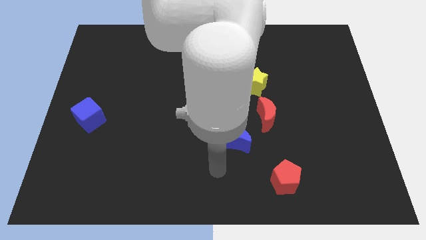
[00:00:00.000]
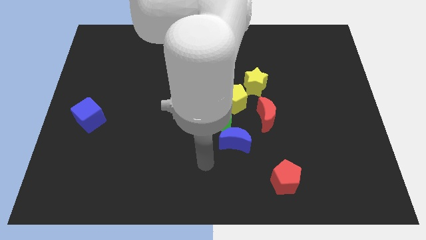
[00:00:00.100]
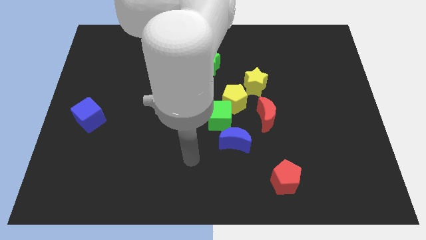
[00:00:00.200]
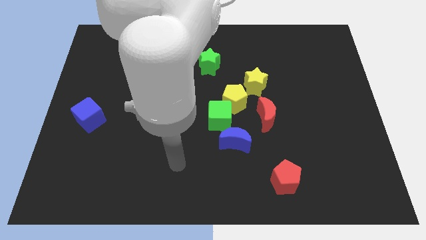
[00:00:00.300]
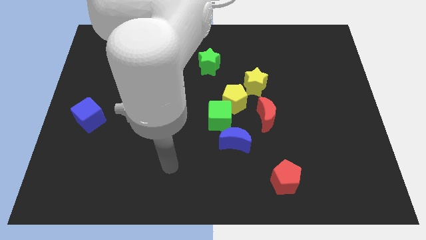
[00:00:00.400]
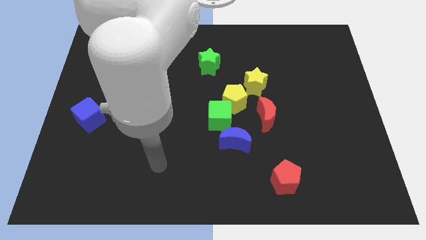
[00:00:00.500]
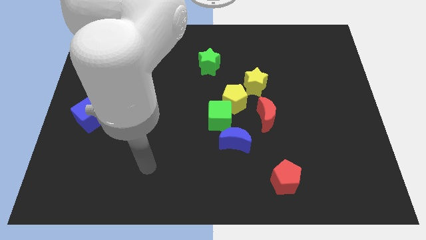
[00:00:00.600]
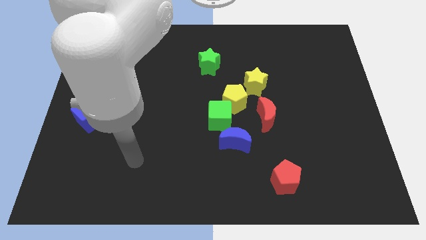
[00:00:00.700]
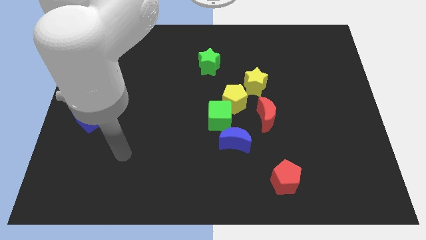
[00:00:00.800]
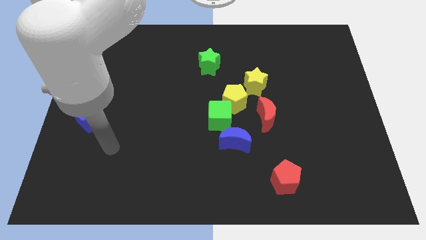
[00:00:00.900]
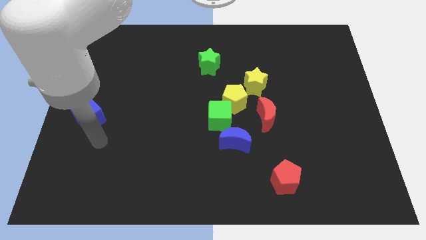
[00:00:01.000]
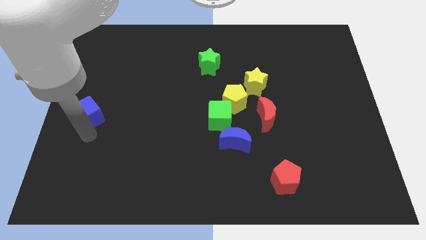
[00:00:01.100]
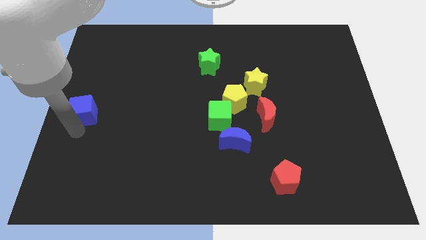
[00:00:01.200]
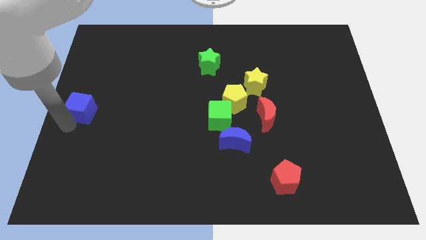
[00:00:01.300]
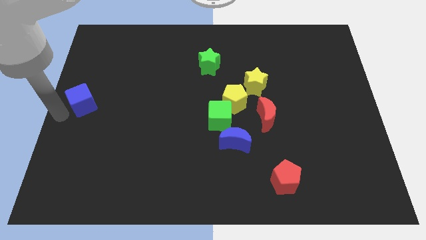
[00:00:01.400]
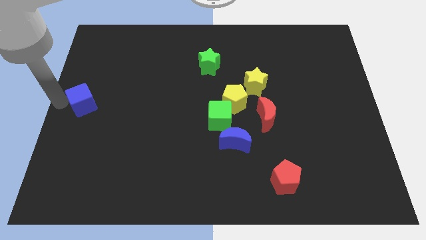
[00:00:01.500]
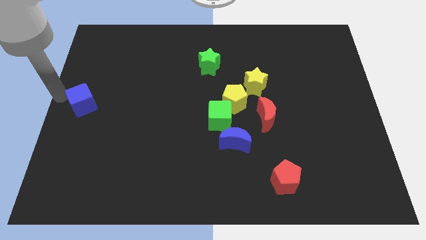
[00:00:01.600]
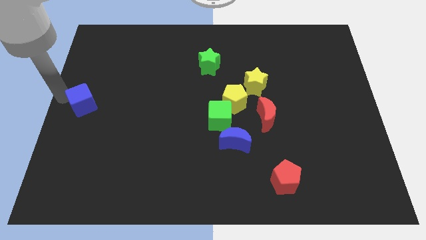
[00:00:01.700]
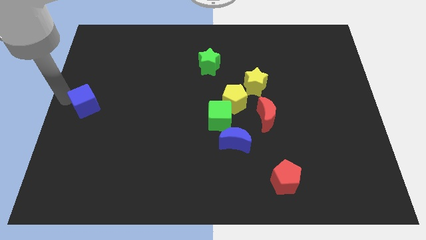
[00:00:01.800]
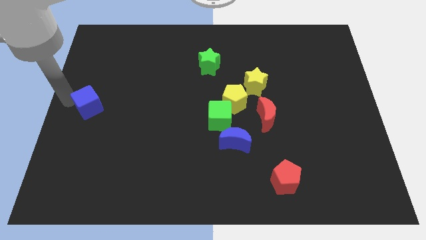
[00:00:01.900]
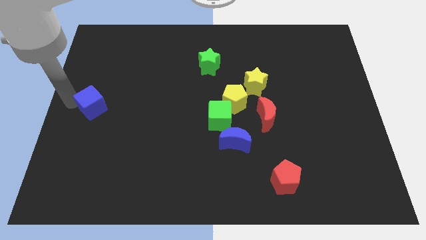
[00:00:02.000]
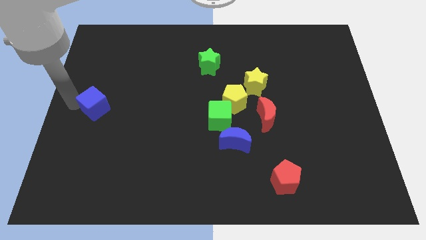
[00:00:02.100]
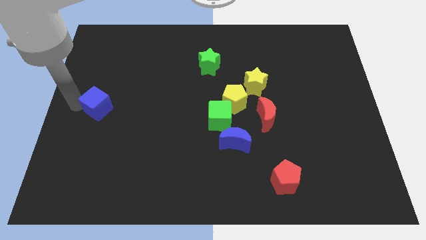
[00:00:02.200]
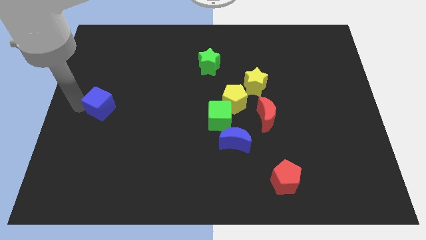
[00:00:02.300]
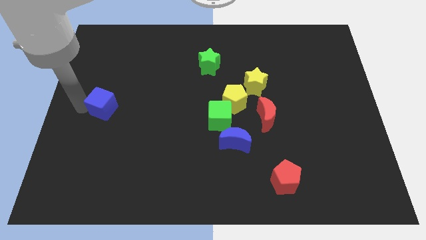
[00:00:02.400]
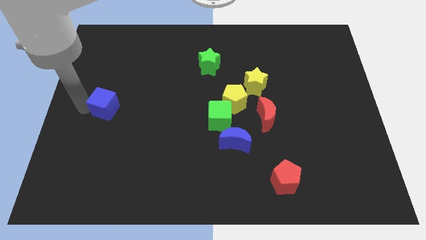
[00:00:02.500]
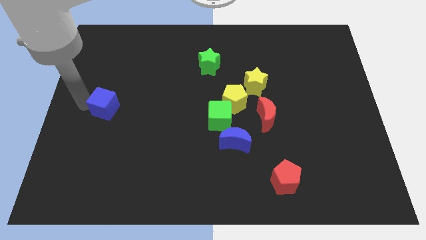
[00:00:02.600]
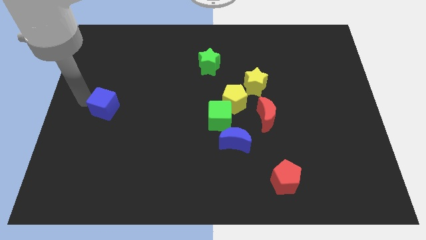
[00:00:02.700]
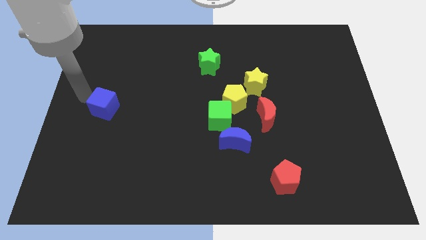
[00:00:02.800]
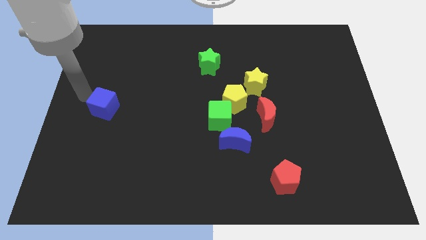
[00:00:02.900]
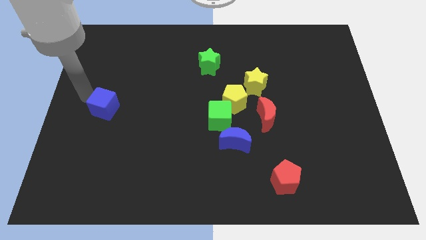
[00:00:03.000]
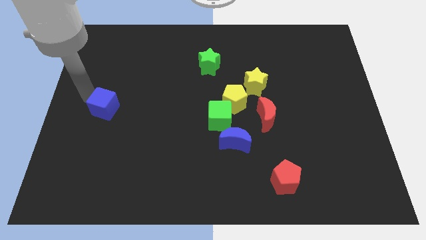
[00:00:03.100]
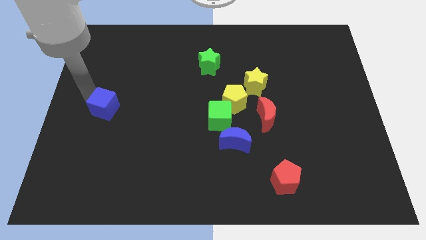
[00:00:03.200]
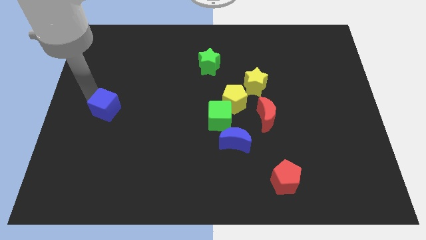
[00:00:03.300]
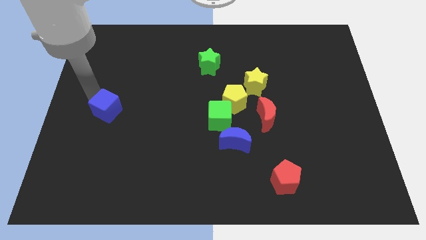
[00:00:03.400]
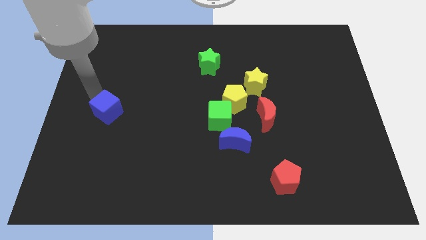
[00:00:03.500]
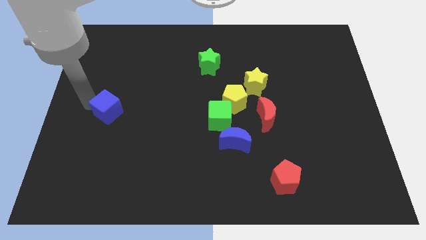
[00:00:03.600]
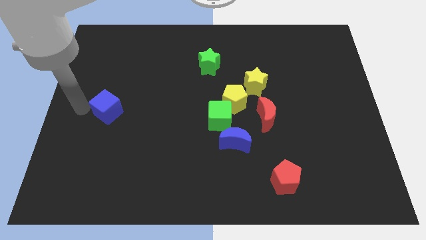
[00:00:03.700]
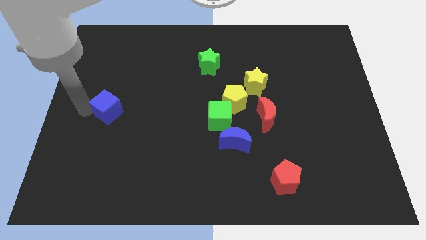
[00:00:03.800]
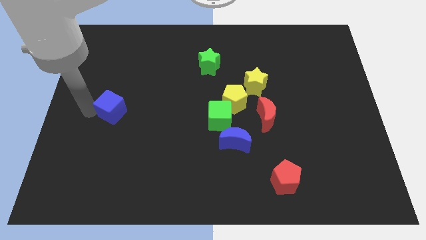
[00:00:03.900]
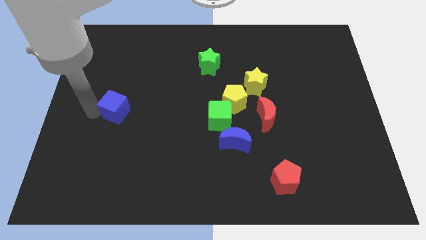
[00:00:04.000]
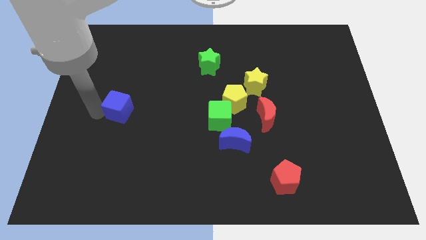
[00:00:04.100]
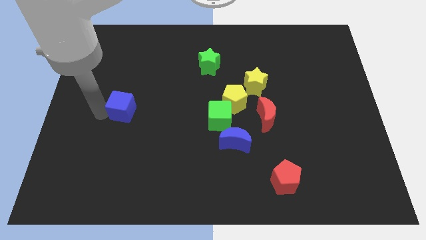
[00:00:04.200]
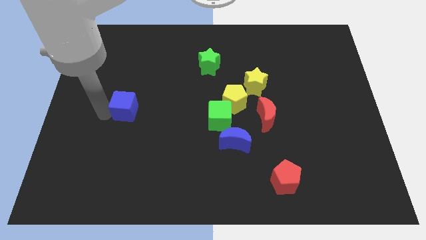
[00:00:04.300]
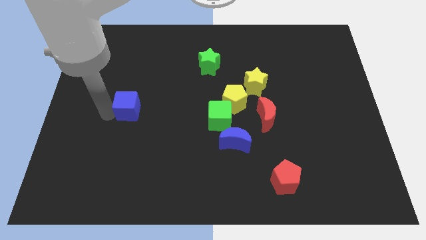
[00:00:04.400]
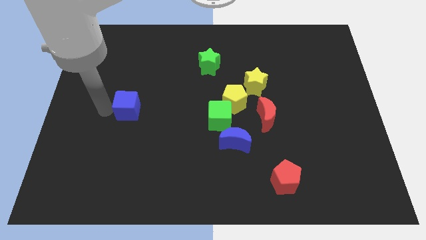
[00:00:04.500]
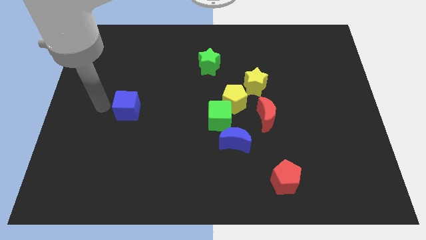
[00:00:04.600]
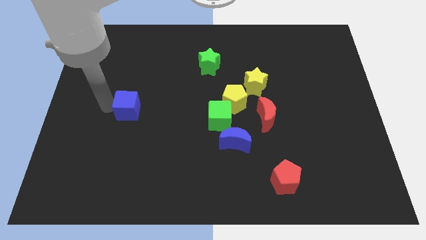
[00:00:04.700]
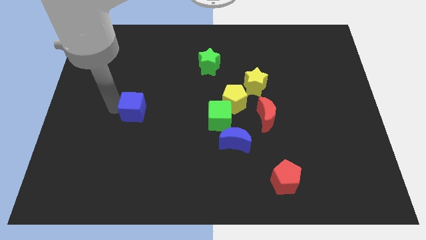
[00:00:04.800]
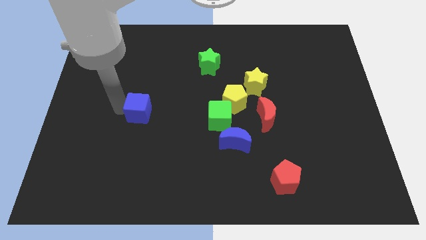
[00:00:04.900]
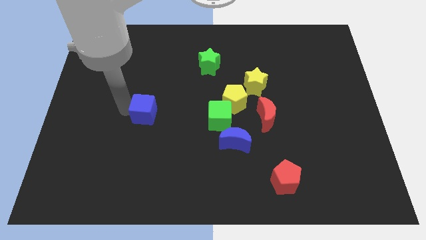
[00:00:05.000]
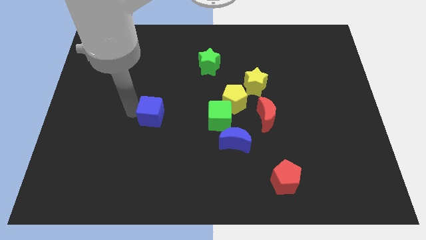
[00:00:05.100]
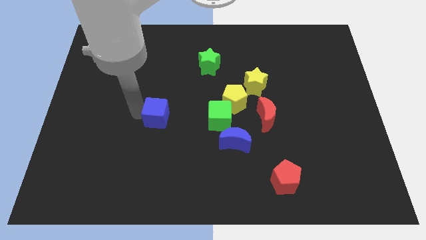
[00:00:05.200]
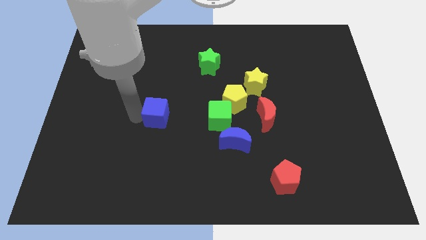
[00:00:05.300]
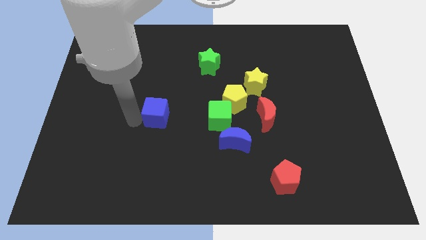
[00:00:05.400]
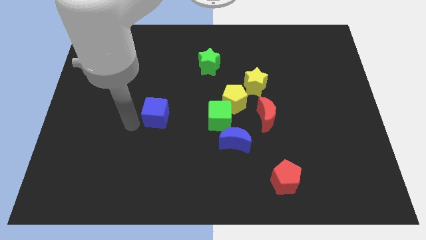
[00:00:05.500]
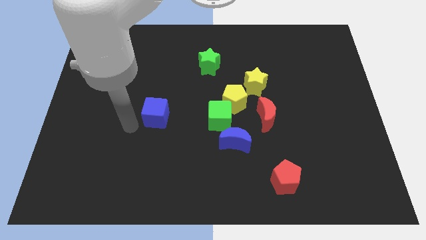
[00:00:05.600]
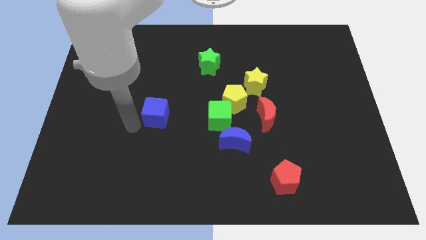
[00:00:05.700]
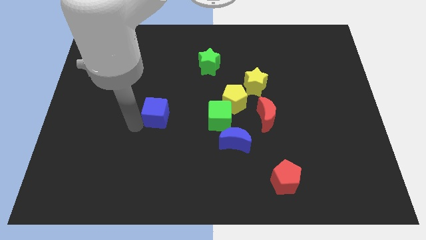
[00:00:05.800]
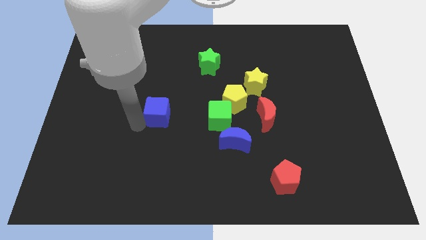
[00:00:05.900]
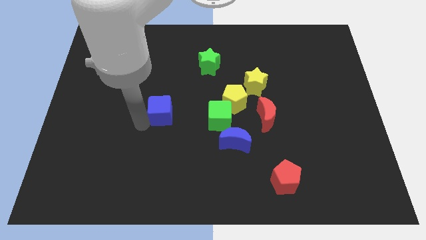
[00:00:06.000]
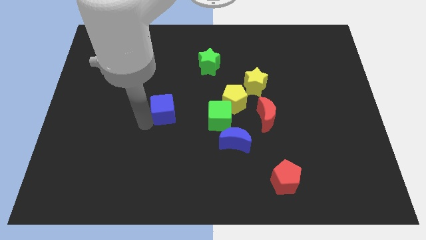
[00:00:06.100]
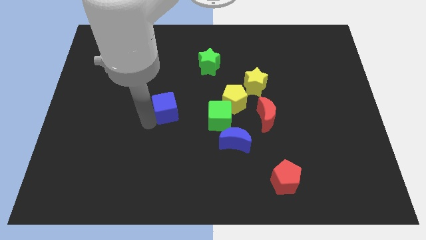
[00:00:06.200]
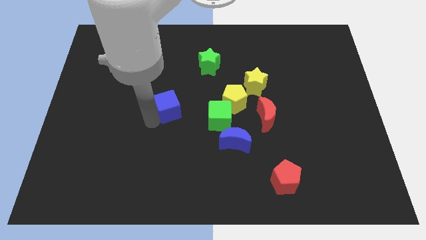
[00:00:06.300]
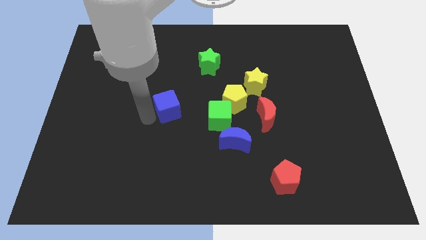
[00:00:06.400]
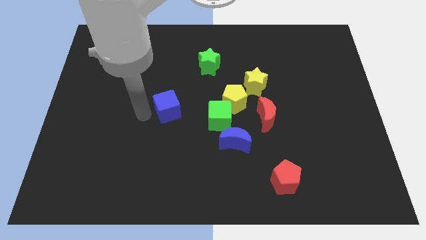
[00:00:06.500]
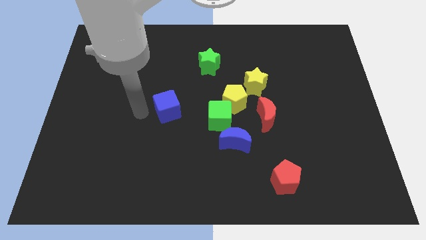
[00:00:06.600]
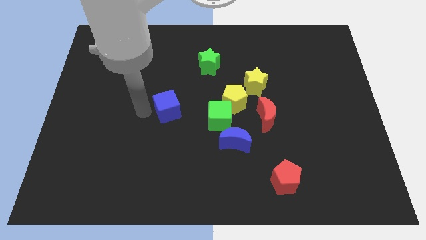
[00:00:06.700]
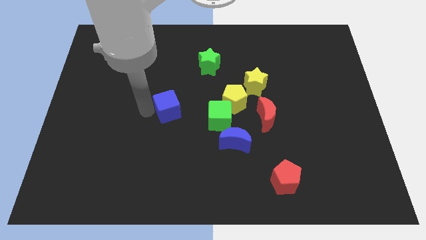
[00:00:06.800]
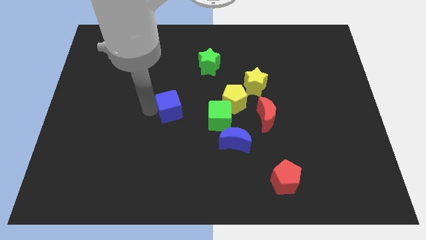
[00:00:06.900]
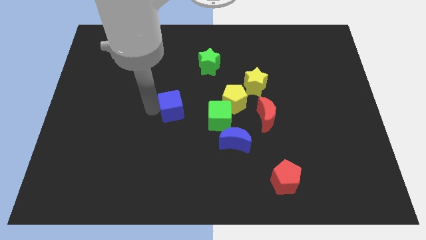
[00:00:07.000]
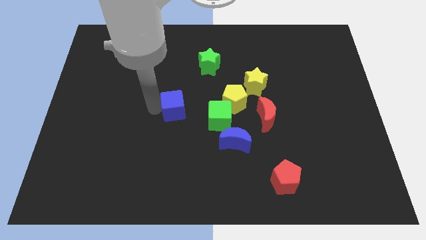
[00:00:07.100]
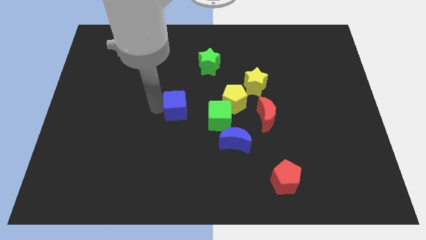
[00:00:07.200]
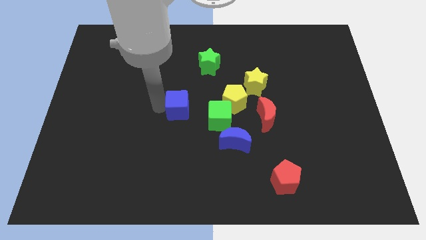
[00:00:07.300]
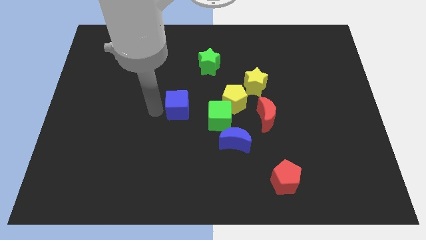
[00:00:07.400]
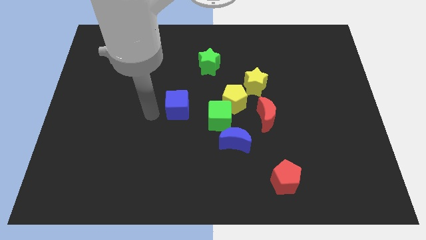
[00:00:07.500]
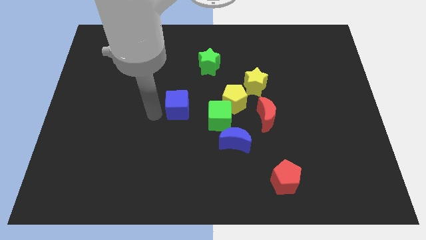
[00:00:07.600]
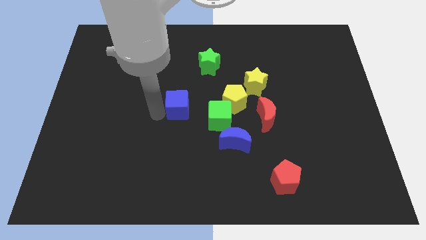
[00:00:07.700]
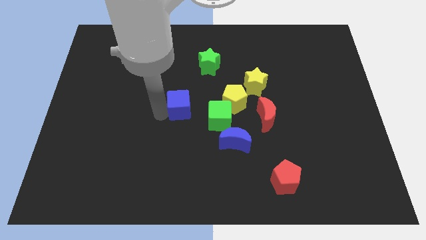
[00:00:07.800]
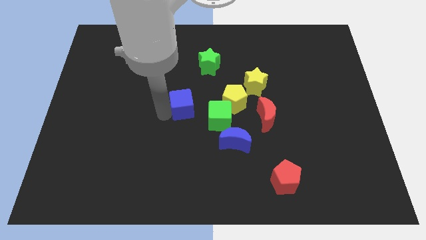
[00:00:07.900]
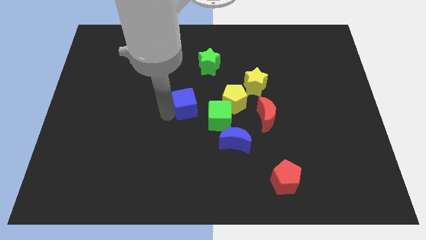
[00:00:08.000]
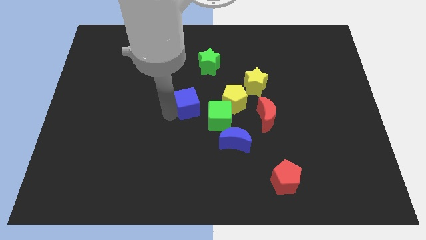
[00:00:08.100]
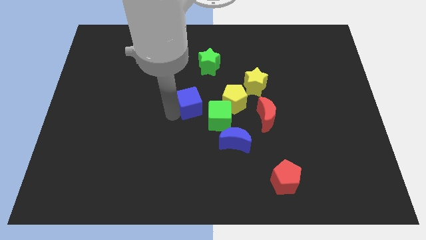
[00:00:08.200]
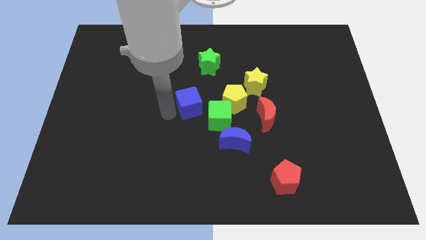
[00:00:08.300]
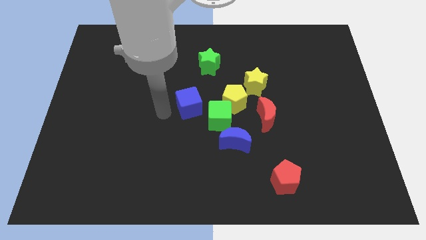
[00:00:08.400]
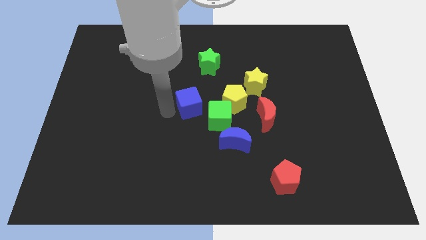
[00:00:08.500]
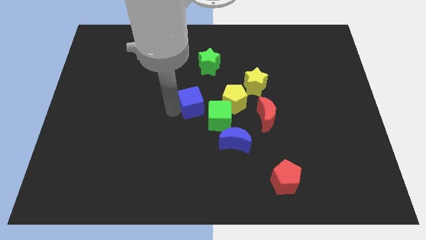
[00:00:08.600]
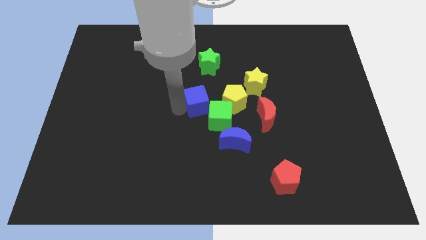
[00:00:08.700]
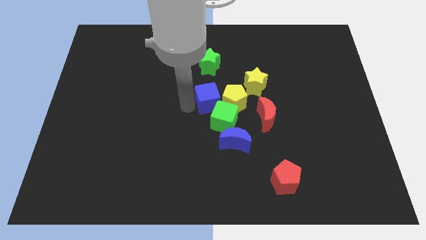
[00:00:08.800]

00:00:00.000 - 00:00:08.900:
push the blue cube towards the yellow pentagon
